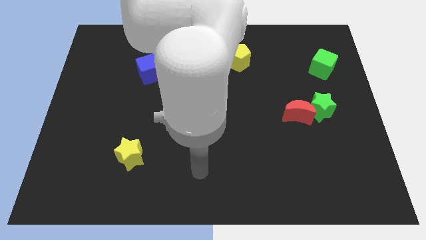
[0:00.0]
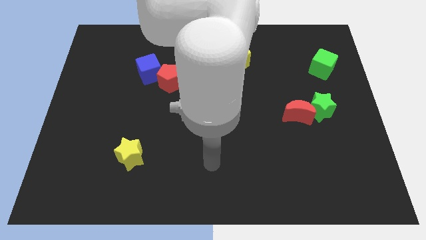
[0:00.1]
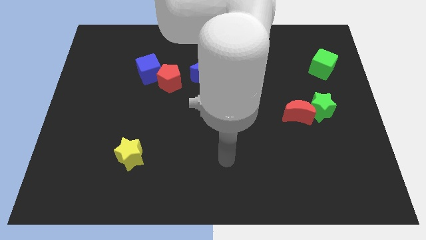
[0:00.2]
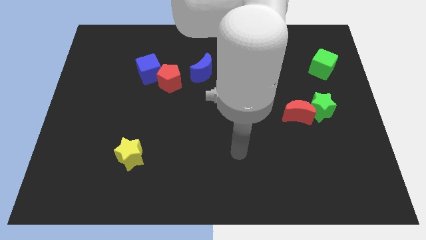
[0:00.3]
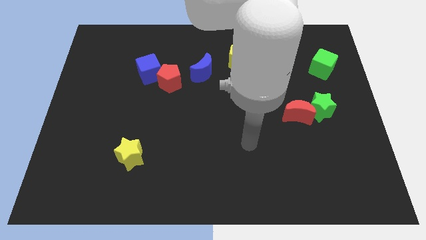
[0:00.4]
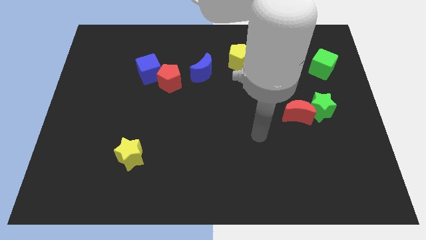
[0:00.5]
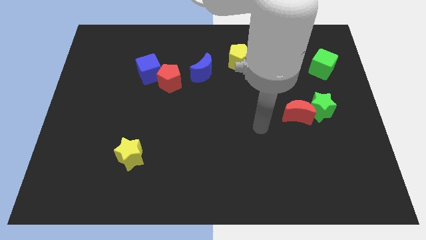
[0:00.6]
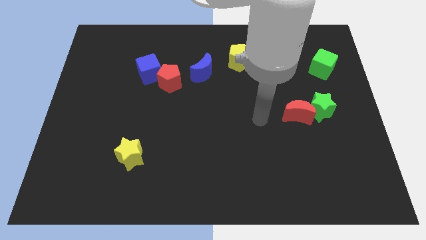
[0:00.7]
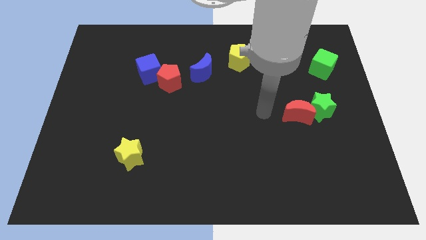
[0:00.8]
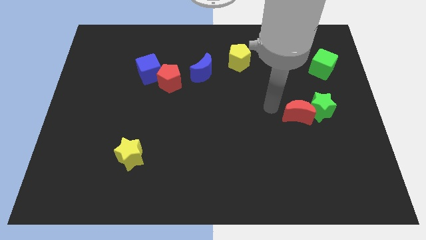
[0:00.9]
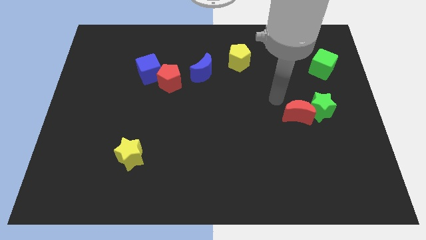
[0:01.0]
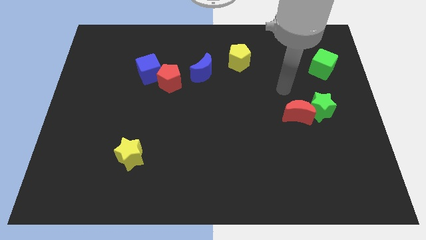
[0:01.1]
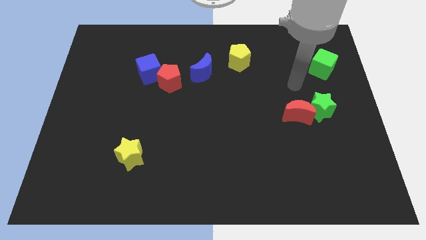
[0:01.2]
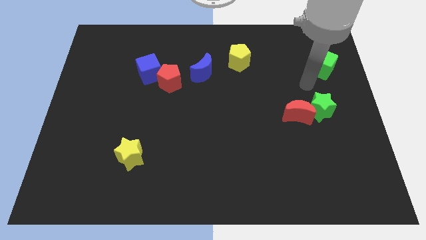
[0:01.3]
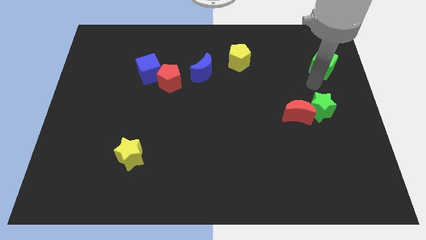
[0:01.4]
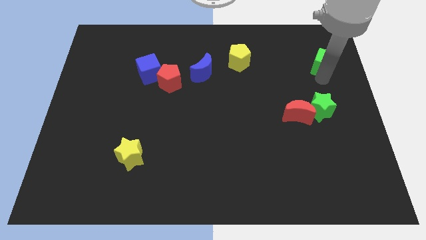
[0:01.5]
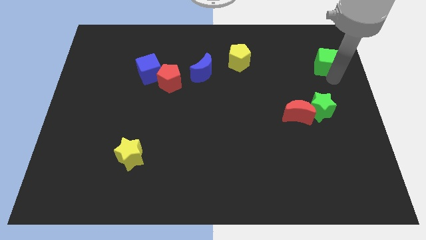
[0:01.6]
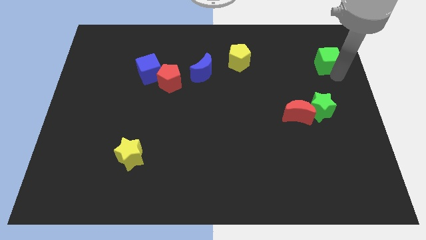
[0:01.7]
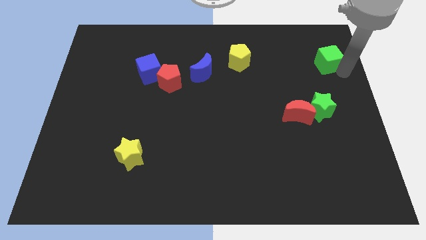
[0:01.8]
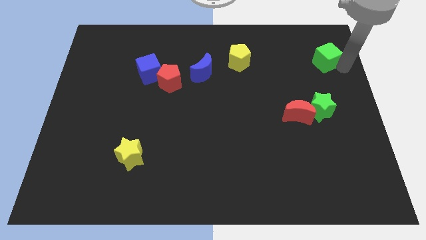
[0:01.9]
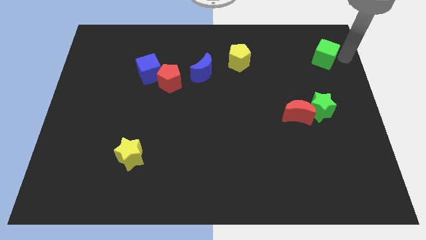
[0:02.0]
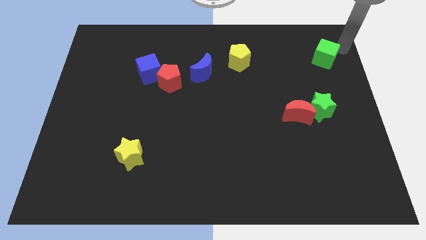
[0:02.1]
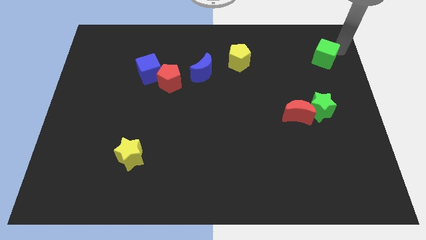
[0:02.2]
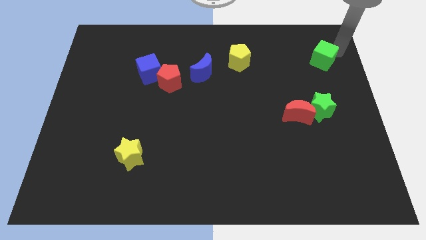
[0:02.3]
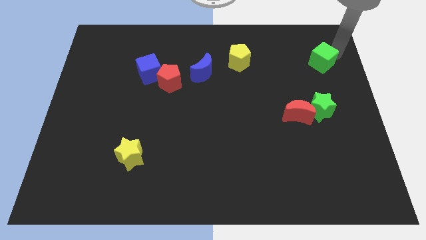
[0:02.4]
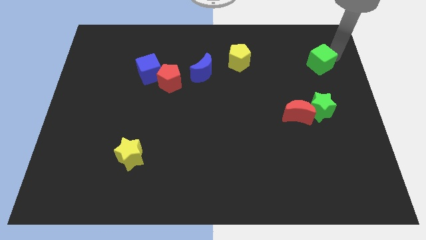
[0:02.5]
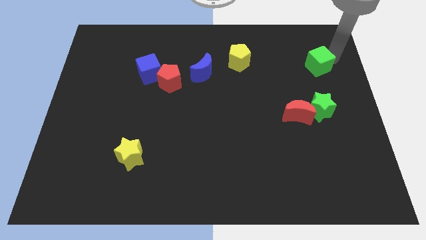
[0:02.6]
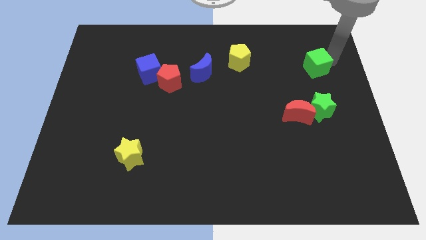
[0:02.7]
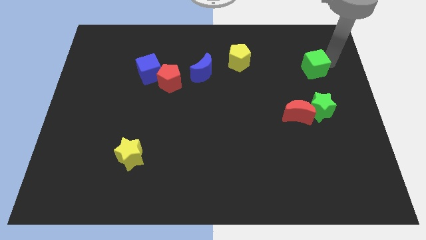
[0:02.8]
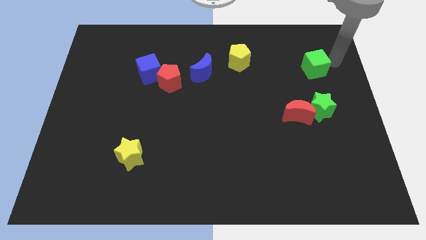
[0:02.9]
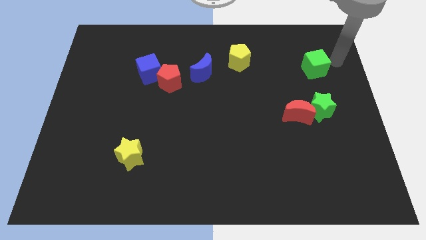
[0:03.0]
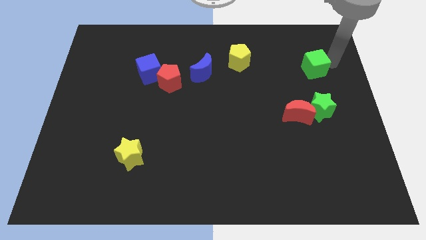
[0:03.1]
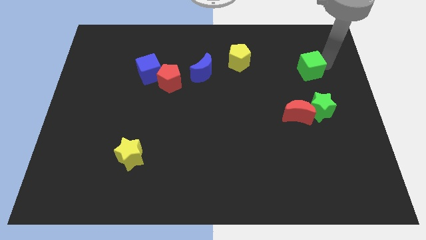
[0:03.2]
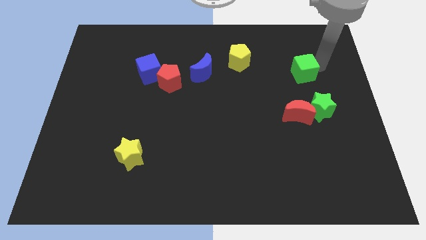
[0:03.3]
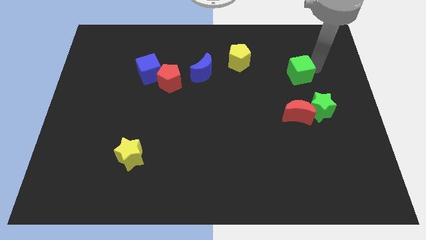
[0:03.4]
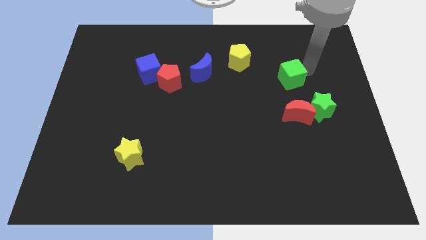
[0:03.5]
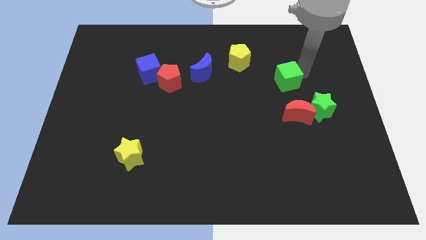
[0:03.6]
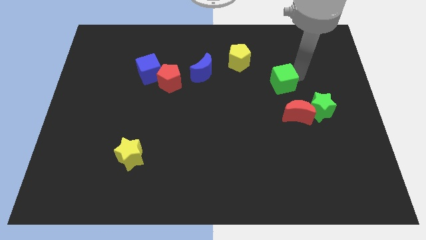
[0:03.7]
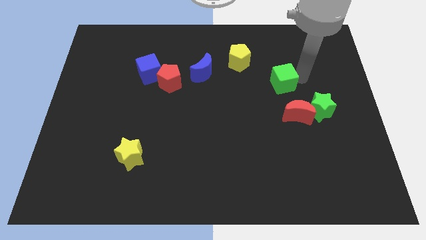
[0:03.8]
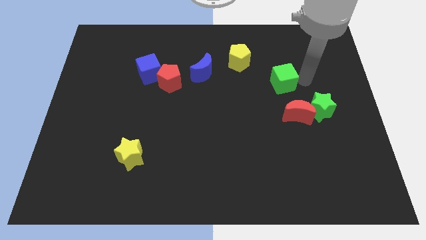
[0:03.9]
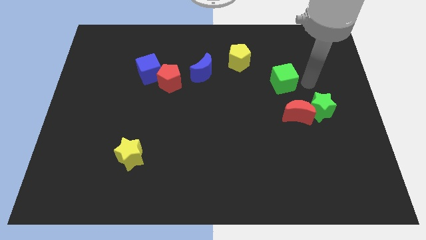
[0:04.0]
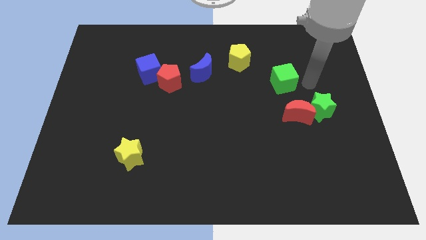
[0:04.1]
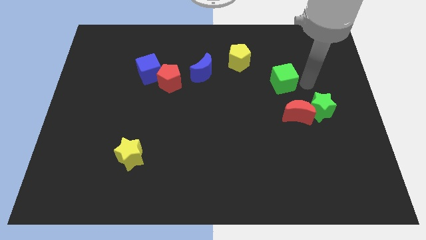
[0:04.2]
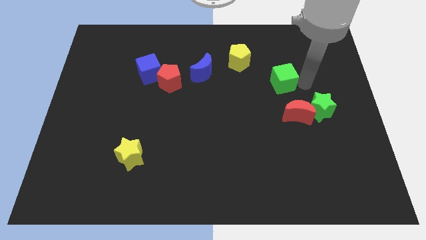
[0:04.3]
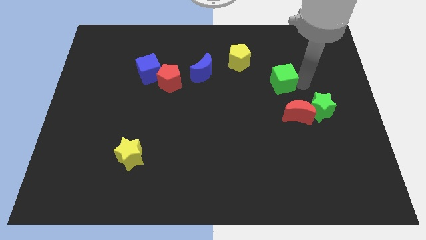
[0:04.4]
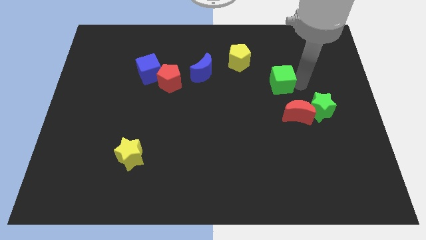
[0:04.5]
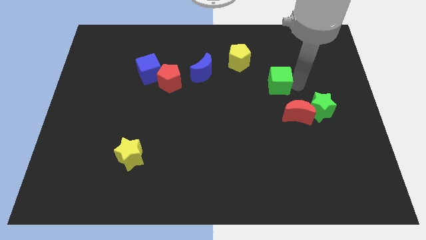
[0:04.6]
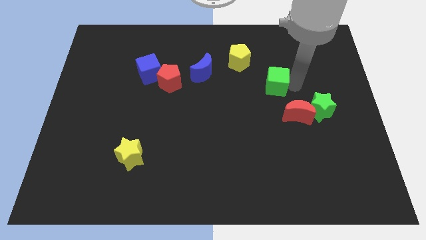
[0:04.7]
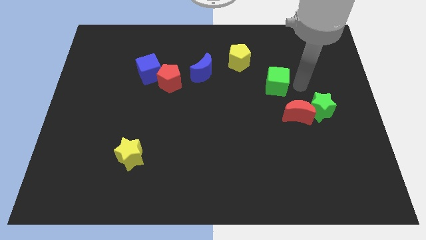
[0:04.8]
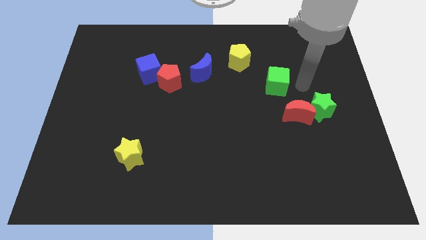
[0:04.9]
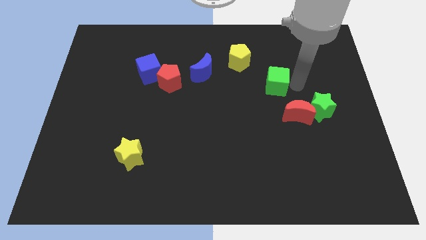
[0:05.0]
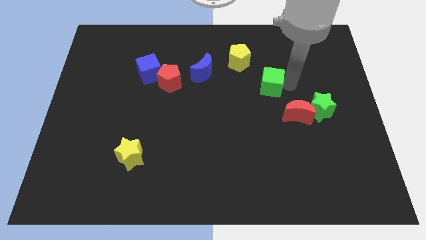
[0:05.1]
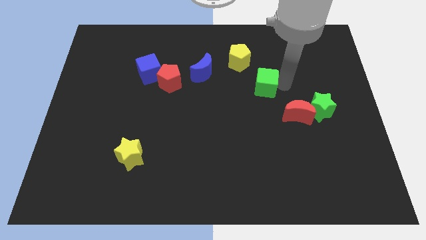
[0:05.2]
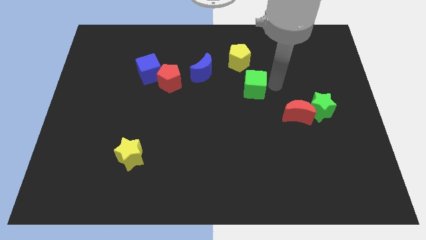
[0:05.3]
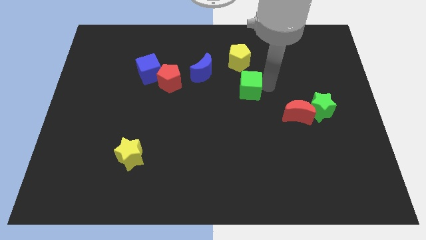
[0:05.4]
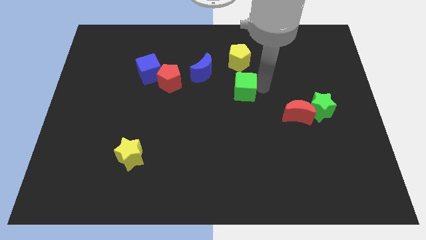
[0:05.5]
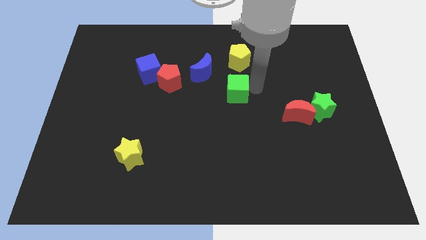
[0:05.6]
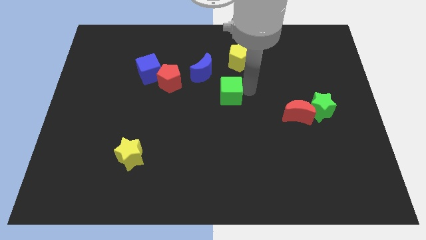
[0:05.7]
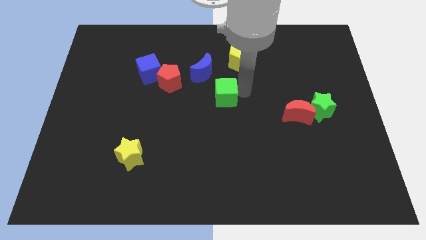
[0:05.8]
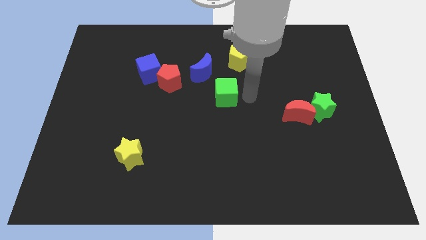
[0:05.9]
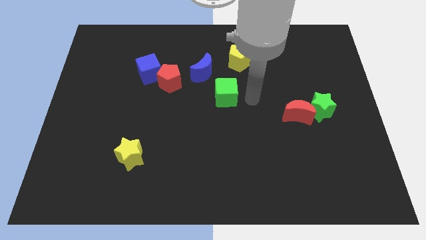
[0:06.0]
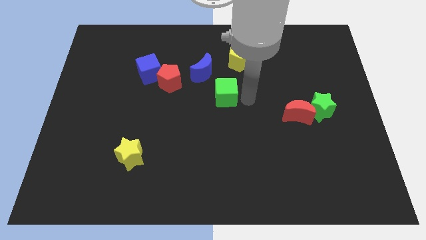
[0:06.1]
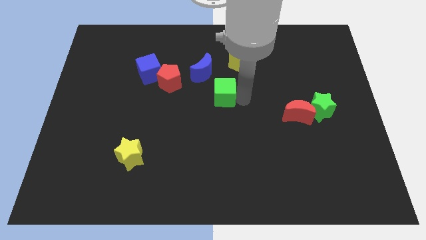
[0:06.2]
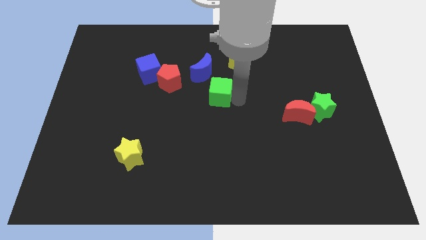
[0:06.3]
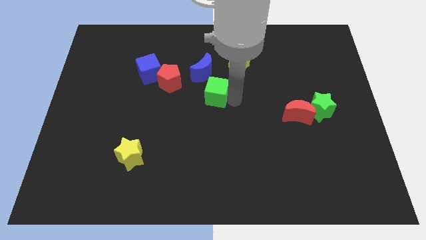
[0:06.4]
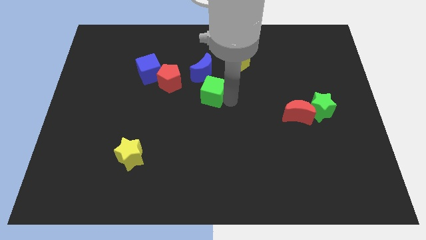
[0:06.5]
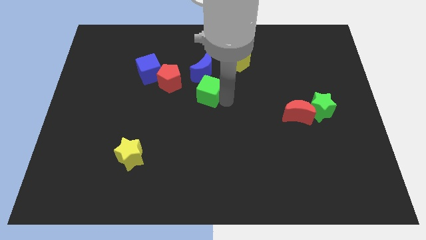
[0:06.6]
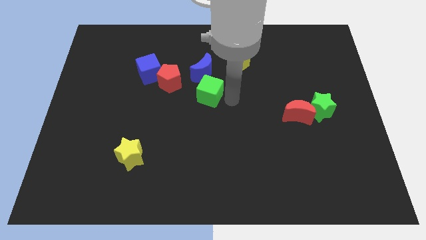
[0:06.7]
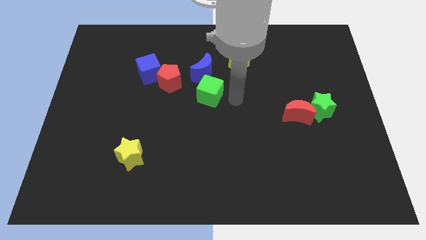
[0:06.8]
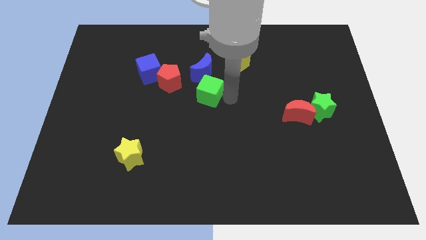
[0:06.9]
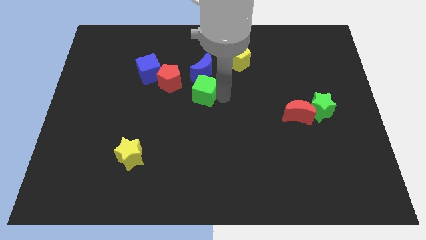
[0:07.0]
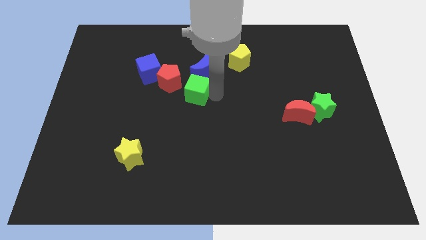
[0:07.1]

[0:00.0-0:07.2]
slide the green cube diagonally down and to the left of the blue moon
